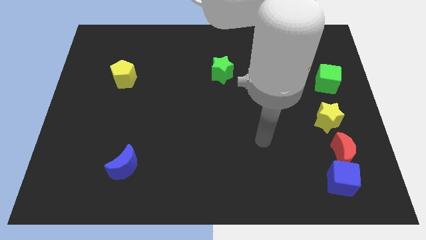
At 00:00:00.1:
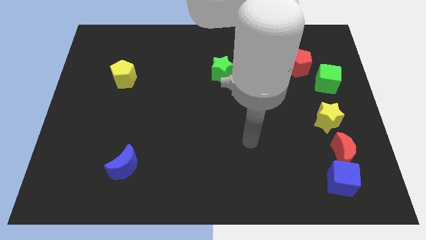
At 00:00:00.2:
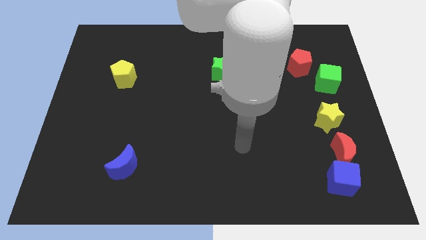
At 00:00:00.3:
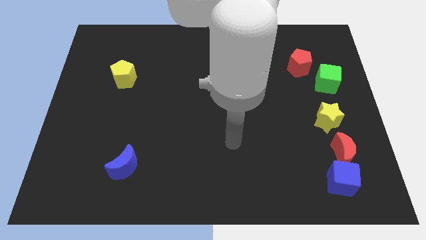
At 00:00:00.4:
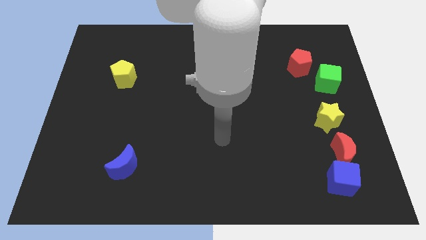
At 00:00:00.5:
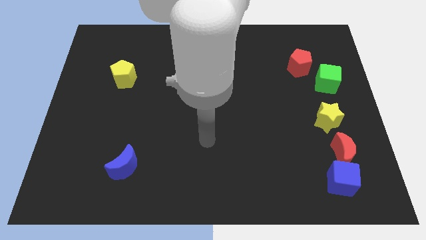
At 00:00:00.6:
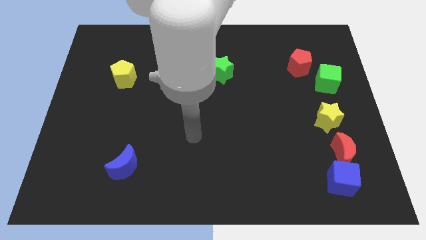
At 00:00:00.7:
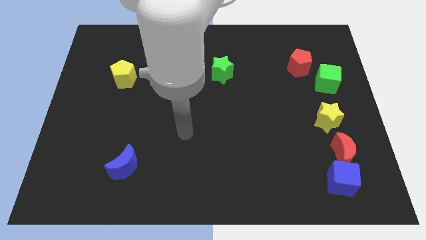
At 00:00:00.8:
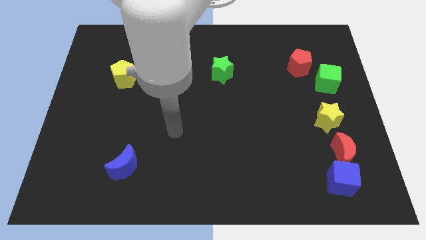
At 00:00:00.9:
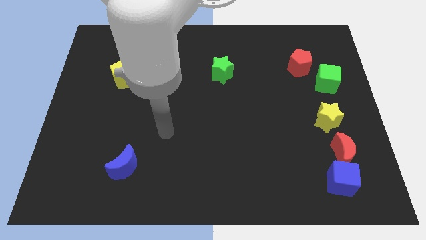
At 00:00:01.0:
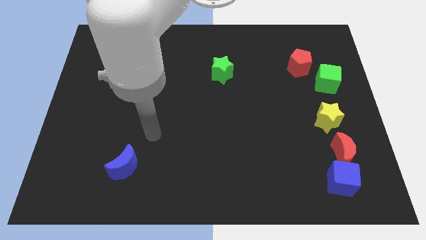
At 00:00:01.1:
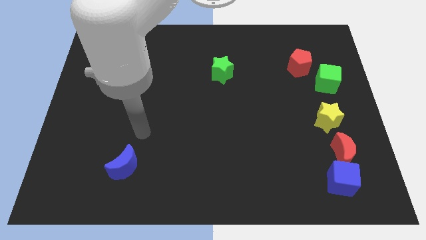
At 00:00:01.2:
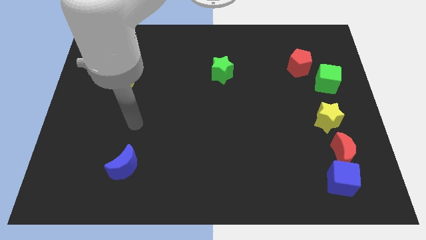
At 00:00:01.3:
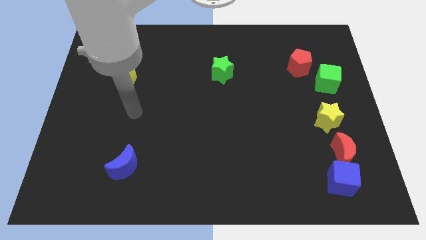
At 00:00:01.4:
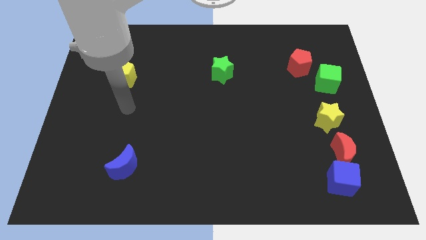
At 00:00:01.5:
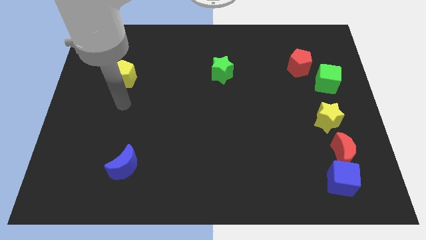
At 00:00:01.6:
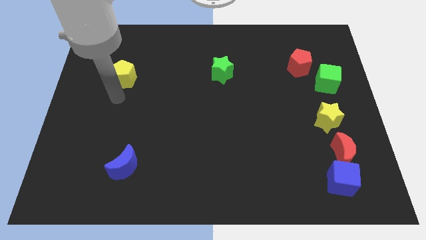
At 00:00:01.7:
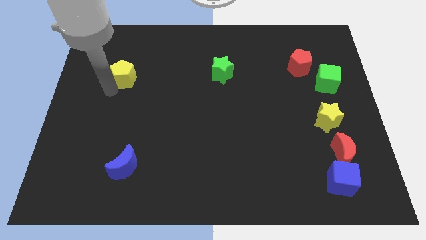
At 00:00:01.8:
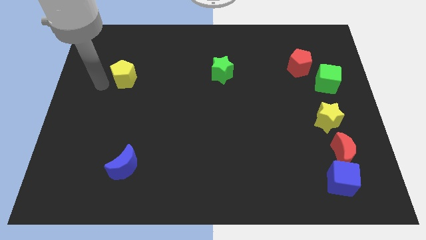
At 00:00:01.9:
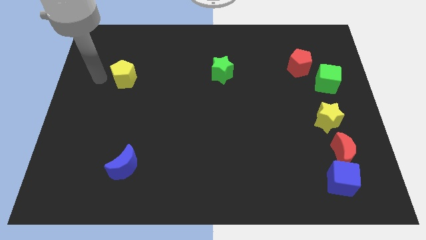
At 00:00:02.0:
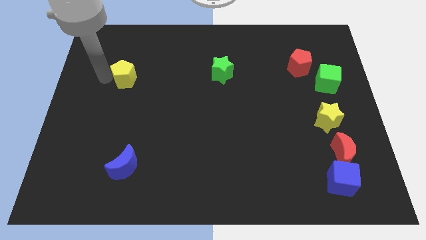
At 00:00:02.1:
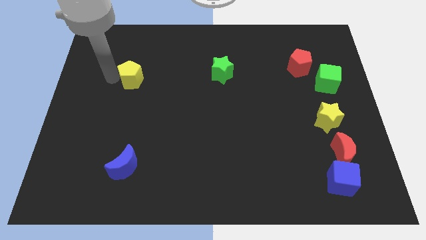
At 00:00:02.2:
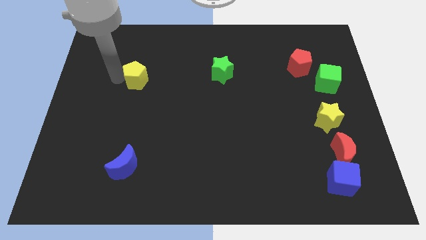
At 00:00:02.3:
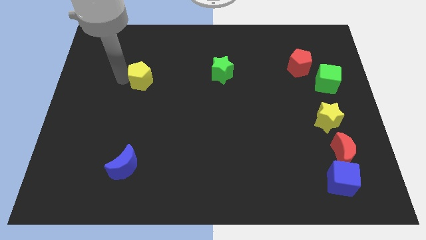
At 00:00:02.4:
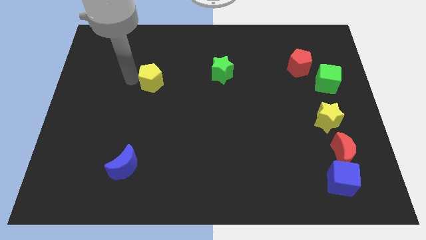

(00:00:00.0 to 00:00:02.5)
slightly move the yellow pentagon right

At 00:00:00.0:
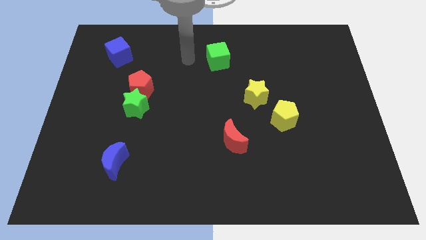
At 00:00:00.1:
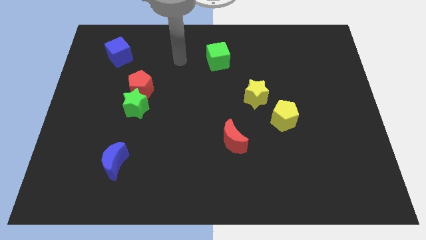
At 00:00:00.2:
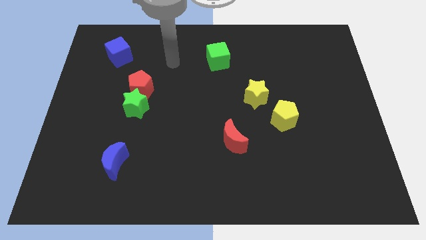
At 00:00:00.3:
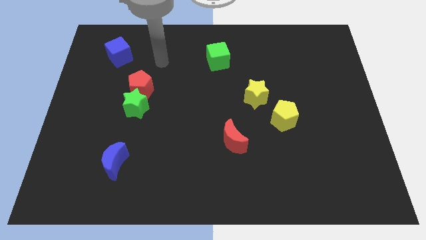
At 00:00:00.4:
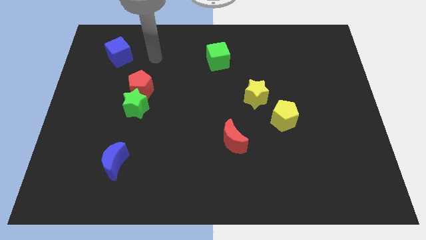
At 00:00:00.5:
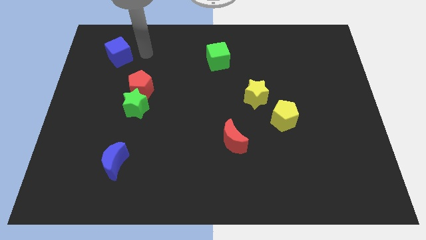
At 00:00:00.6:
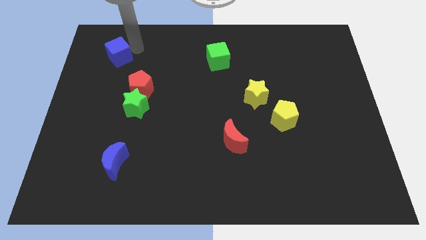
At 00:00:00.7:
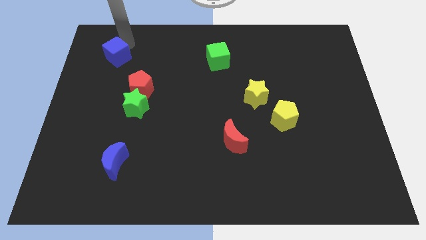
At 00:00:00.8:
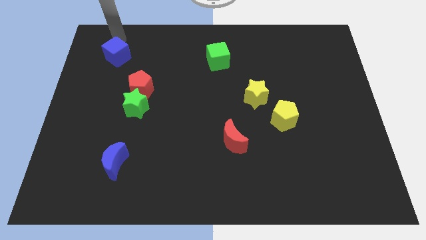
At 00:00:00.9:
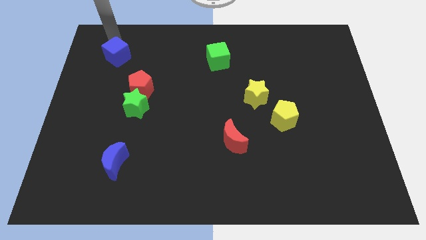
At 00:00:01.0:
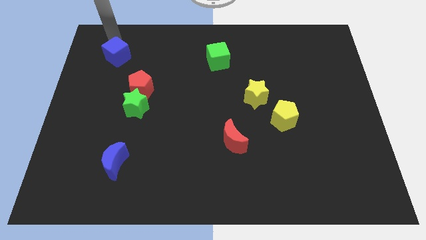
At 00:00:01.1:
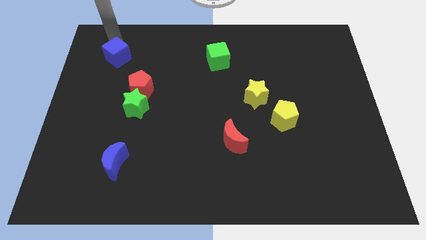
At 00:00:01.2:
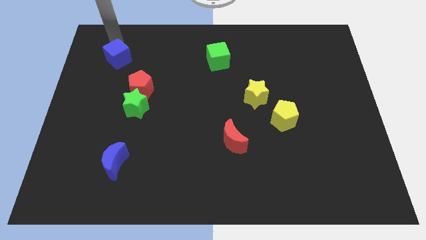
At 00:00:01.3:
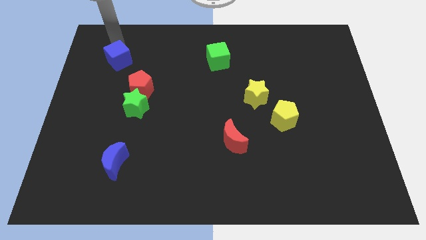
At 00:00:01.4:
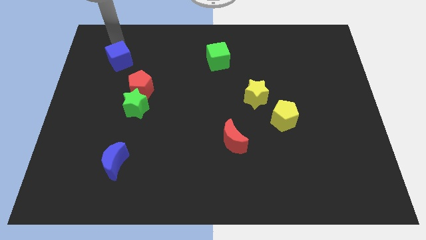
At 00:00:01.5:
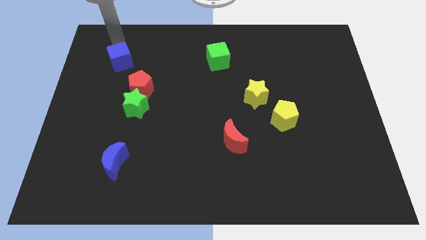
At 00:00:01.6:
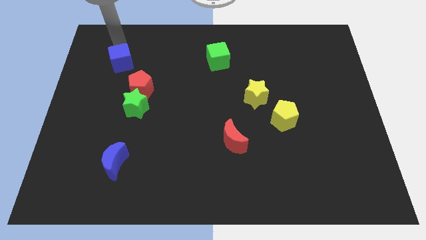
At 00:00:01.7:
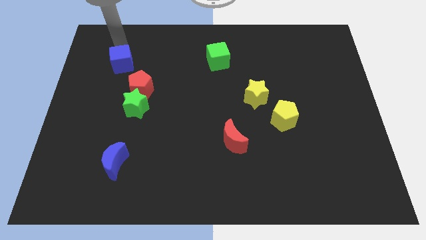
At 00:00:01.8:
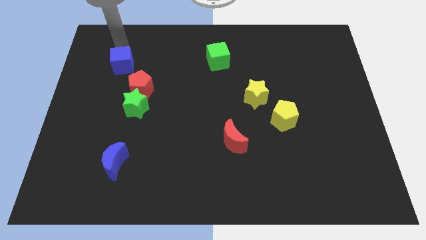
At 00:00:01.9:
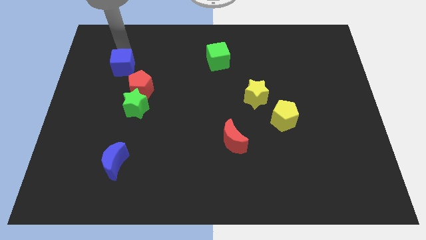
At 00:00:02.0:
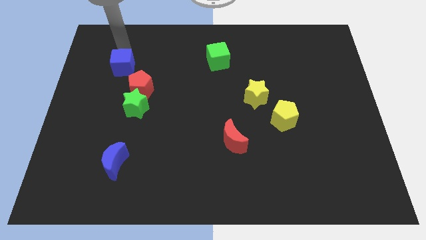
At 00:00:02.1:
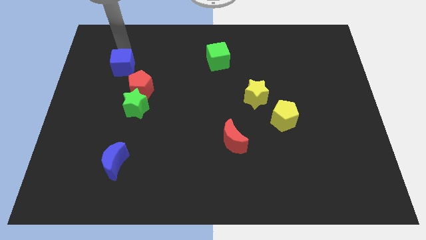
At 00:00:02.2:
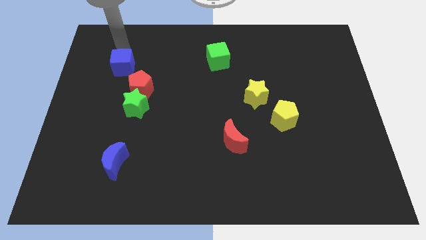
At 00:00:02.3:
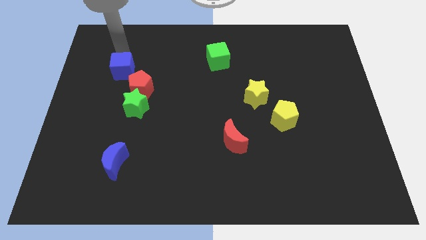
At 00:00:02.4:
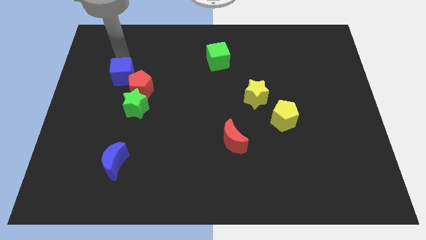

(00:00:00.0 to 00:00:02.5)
move the blue cube a bit down

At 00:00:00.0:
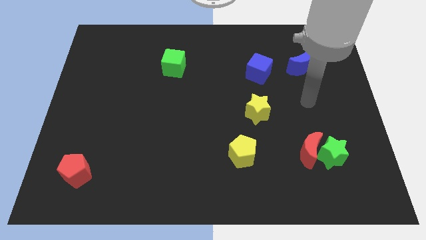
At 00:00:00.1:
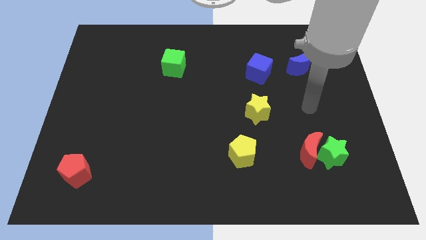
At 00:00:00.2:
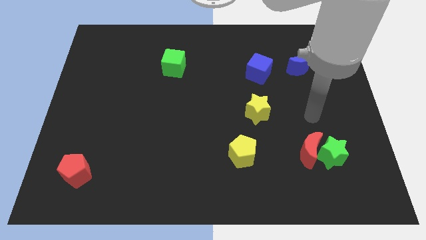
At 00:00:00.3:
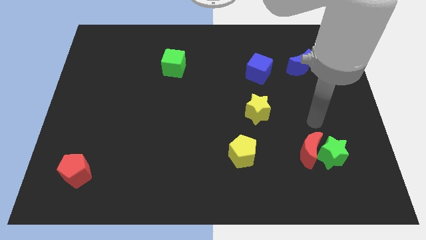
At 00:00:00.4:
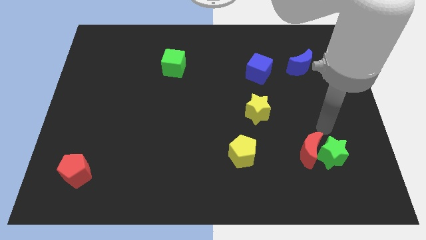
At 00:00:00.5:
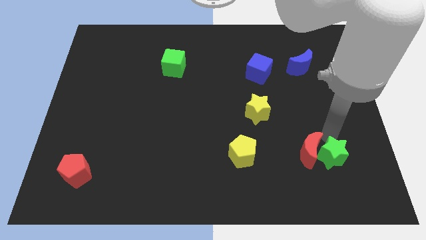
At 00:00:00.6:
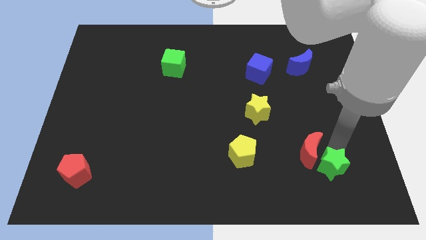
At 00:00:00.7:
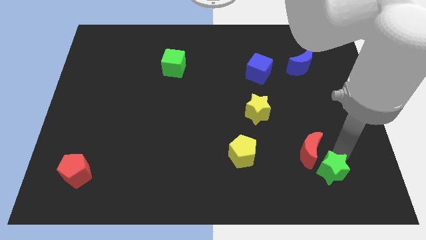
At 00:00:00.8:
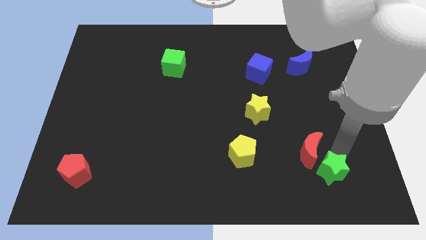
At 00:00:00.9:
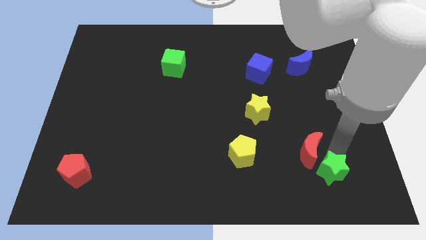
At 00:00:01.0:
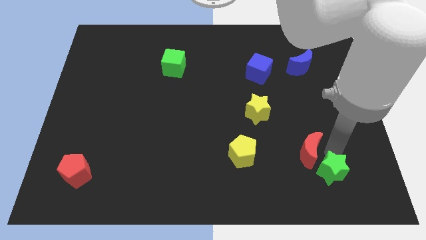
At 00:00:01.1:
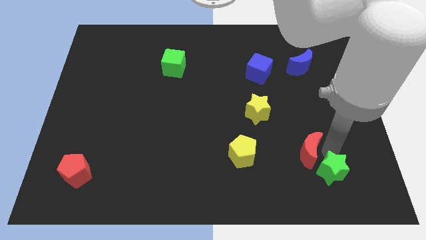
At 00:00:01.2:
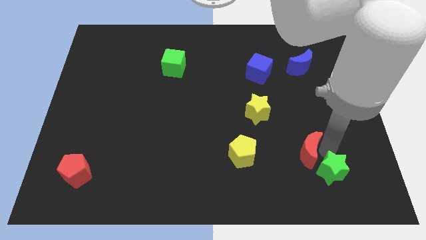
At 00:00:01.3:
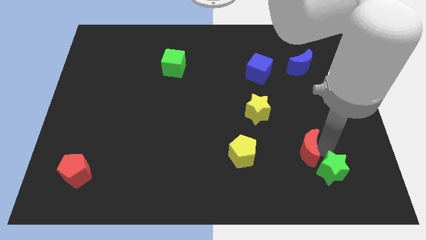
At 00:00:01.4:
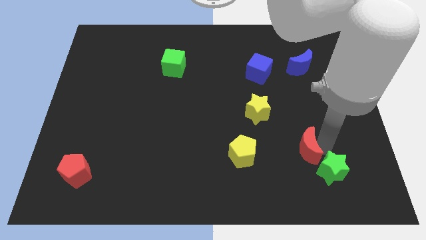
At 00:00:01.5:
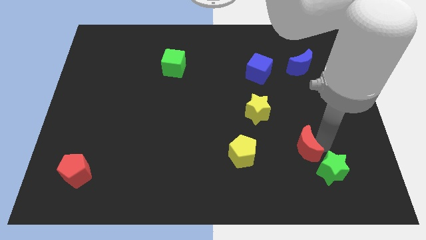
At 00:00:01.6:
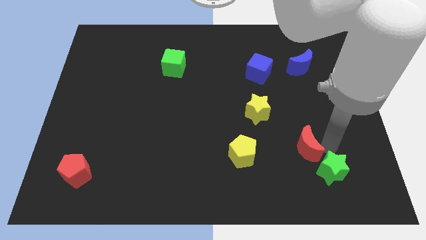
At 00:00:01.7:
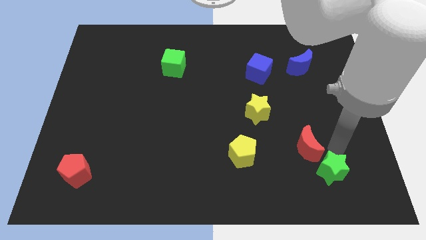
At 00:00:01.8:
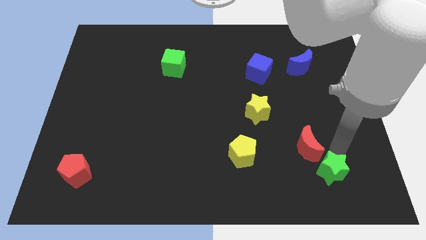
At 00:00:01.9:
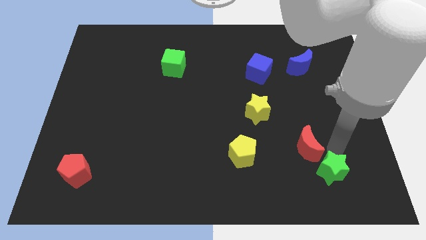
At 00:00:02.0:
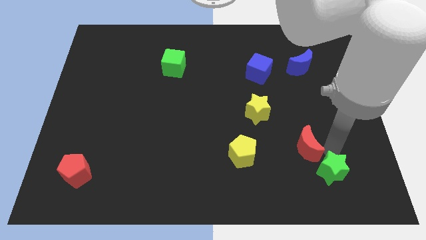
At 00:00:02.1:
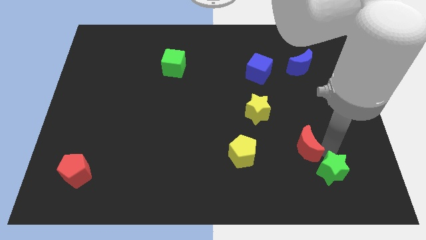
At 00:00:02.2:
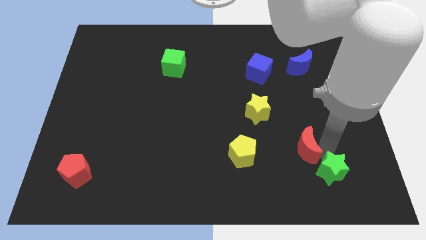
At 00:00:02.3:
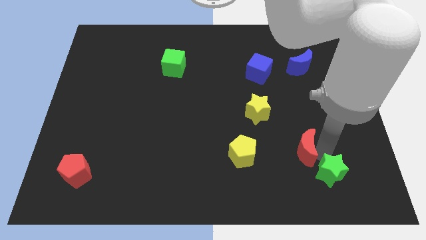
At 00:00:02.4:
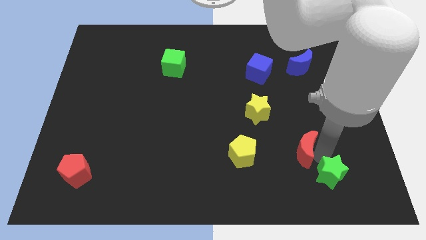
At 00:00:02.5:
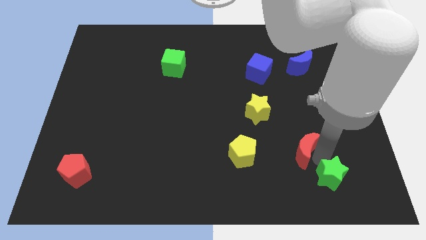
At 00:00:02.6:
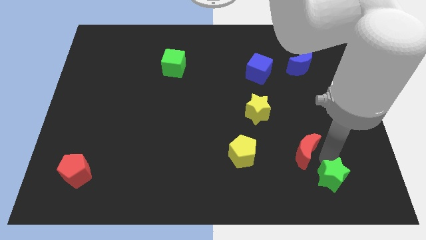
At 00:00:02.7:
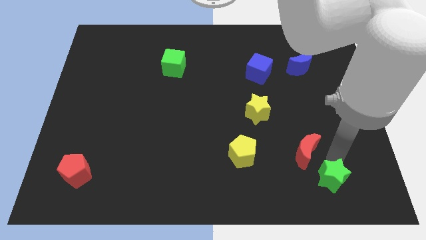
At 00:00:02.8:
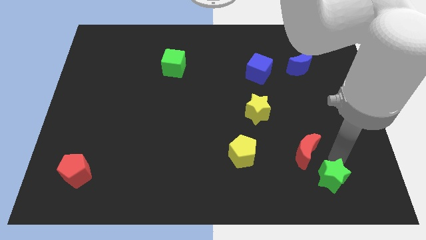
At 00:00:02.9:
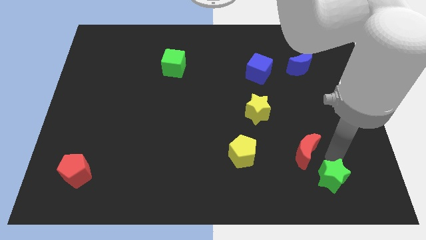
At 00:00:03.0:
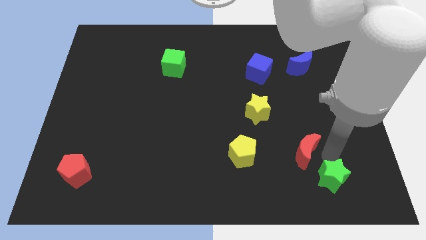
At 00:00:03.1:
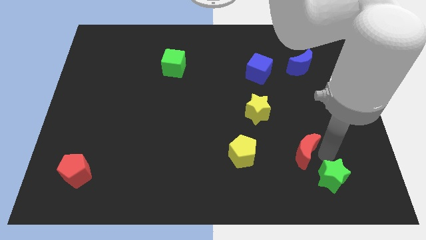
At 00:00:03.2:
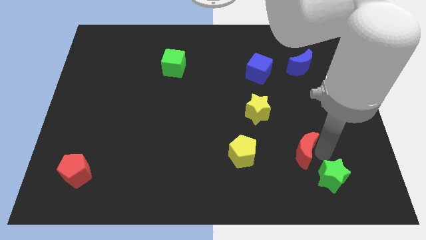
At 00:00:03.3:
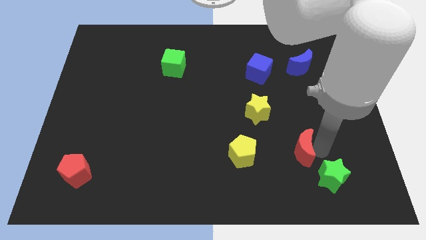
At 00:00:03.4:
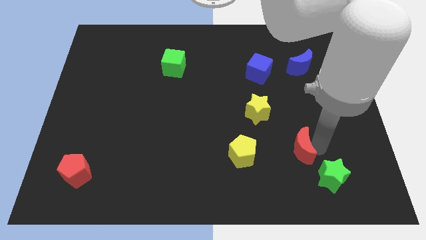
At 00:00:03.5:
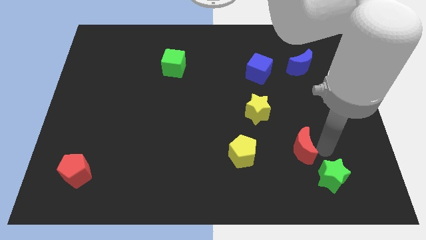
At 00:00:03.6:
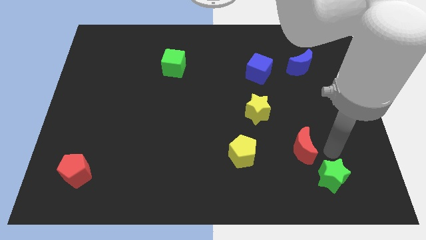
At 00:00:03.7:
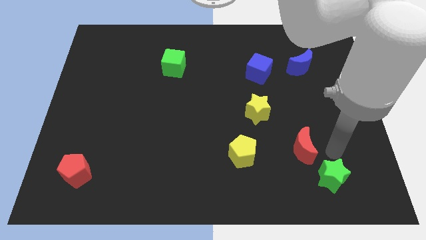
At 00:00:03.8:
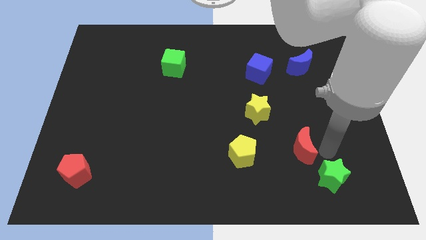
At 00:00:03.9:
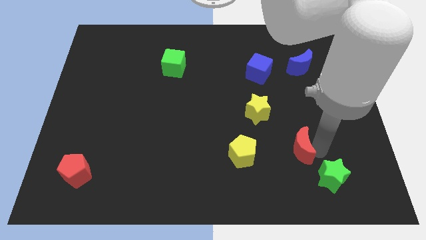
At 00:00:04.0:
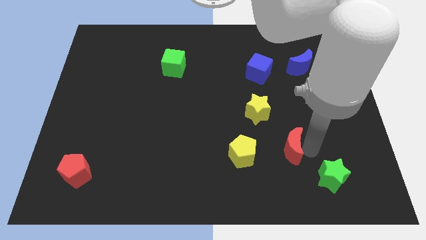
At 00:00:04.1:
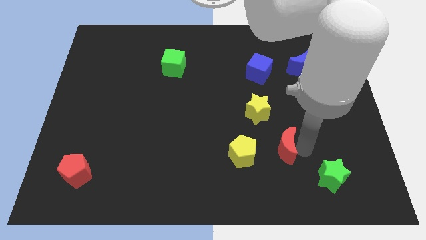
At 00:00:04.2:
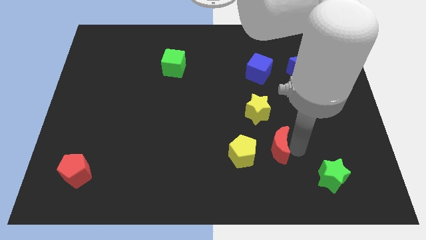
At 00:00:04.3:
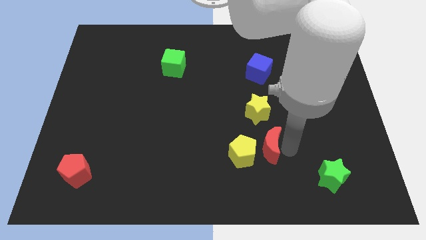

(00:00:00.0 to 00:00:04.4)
push the red moon left slightly
